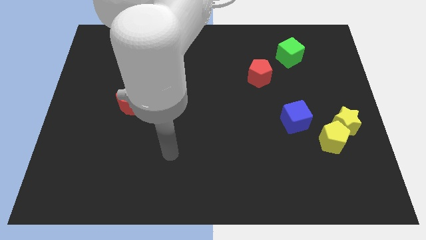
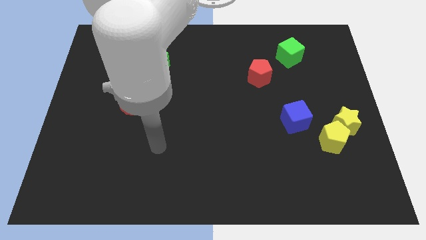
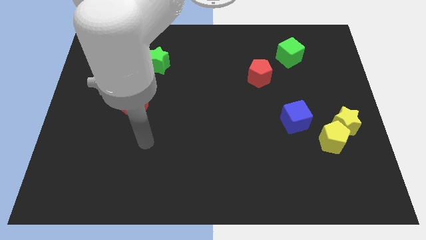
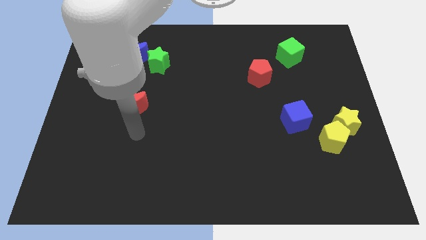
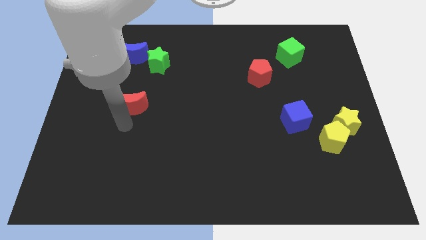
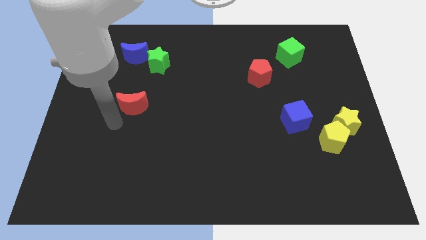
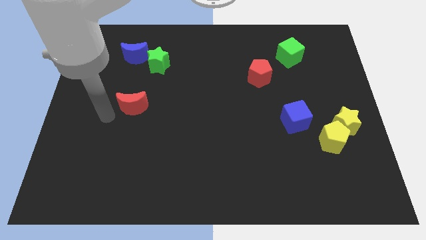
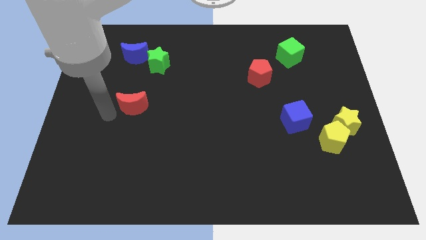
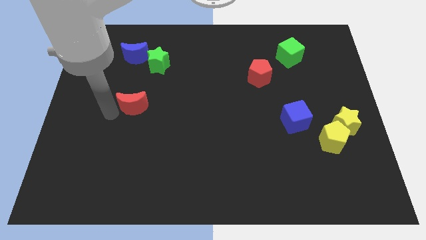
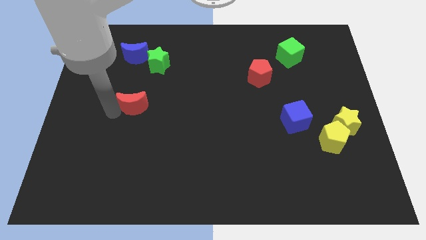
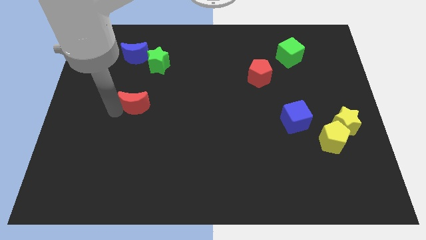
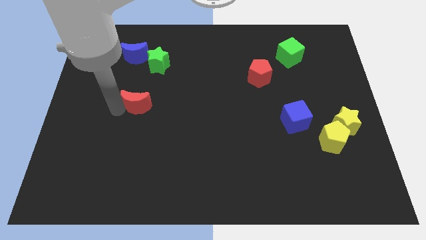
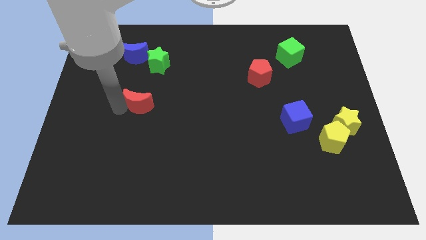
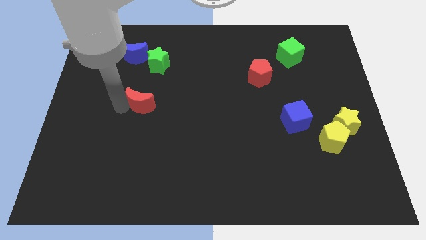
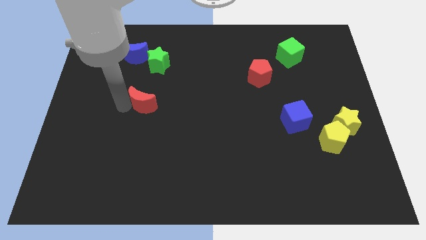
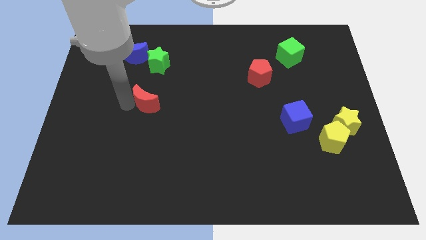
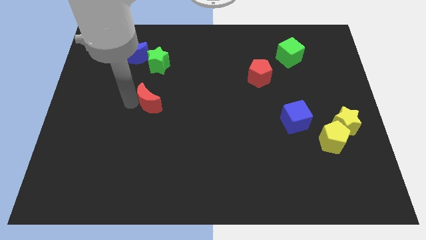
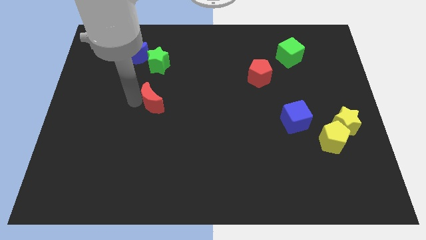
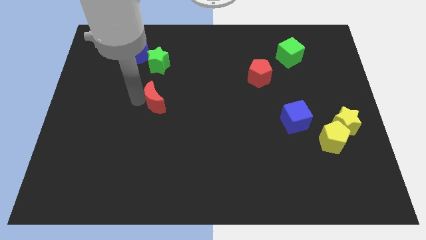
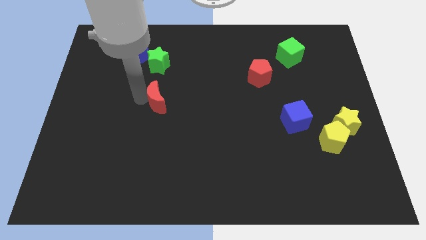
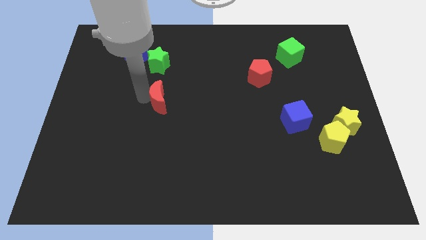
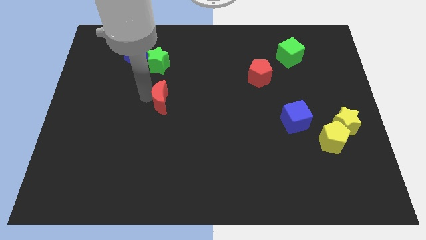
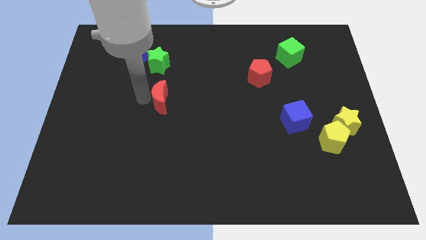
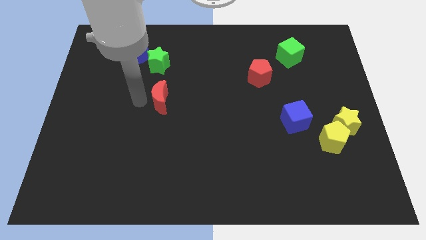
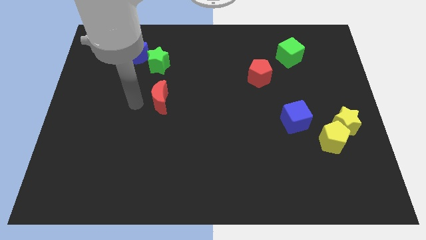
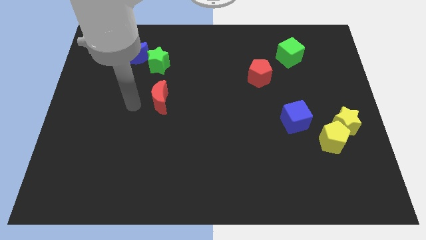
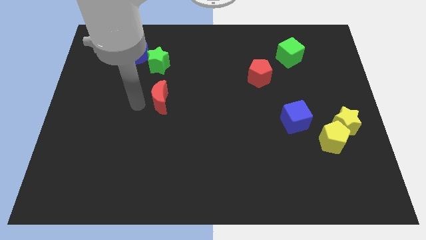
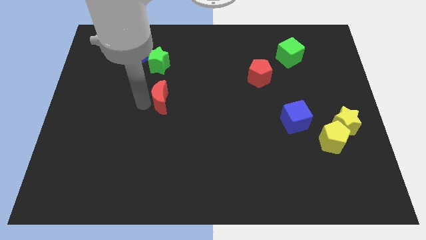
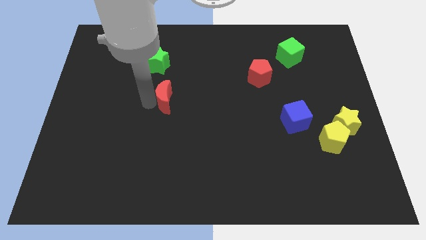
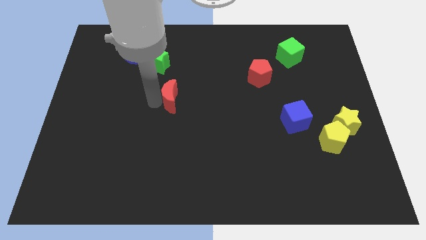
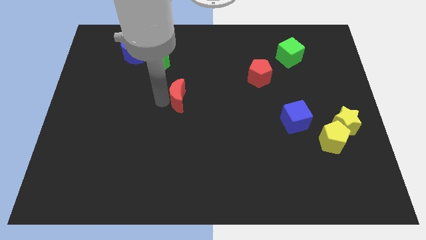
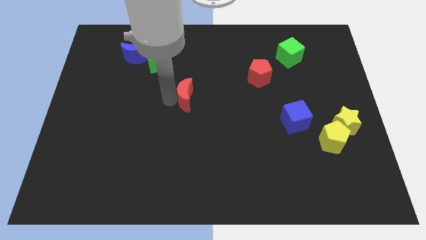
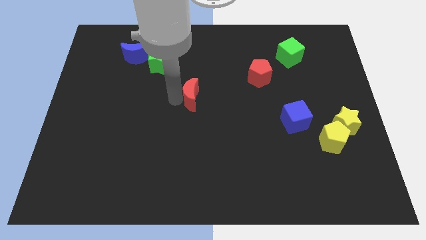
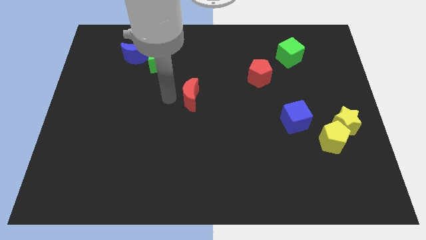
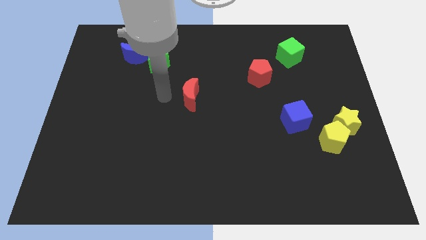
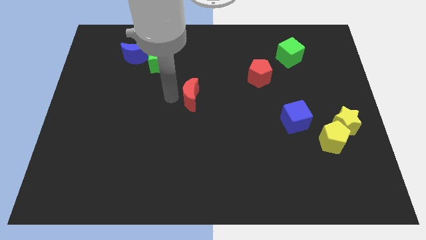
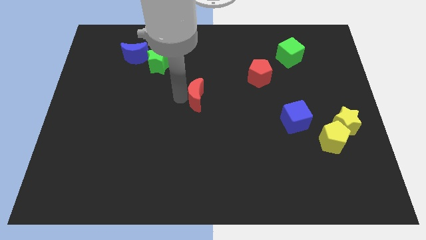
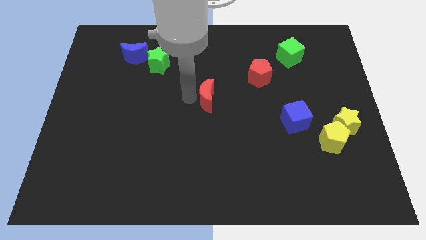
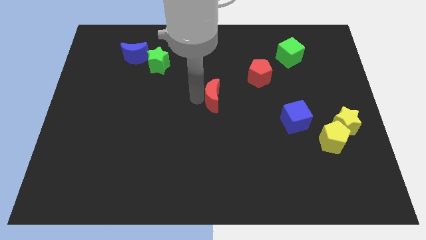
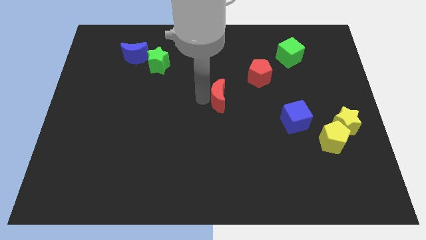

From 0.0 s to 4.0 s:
push the red moon to the right
